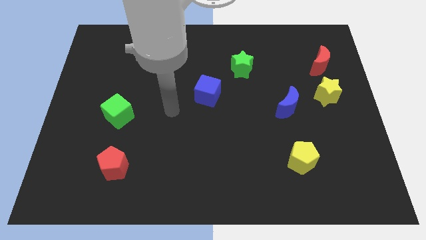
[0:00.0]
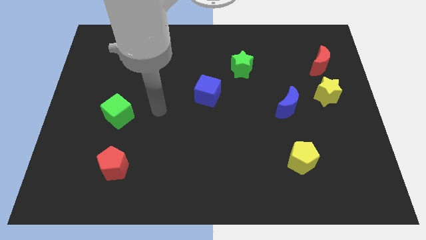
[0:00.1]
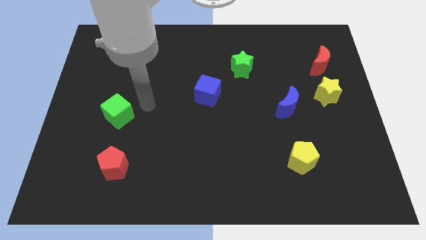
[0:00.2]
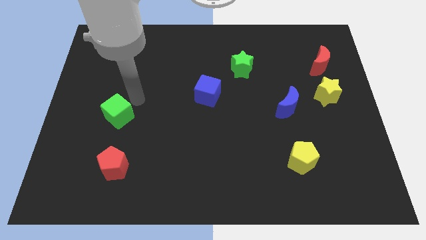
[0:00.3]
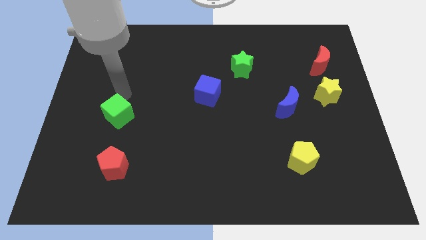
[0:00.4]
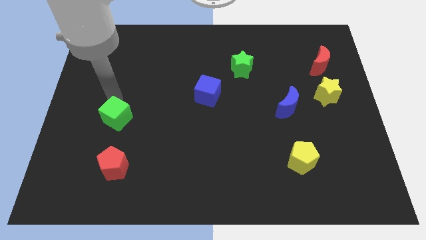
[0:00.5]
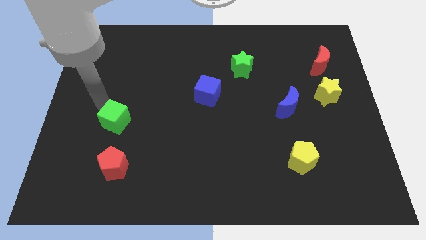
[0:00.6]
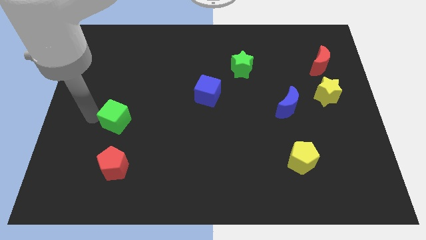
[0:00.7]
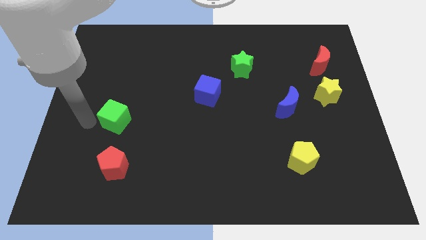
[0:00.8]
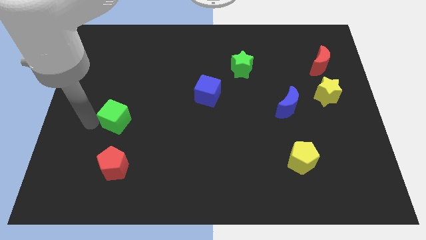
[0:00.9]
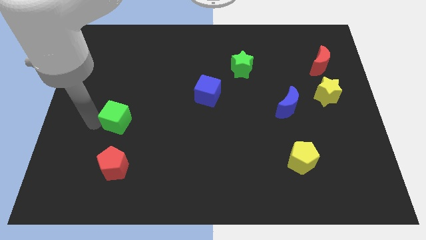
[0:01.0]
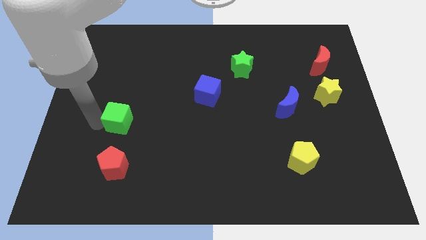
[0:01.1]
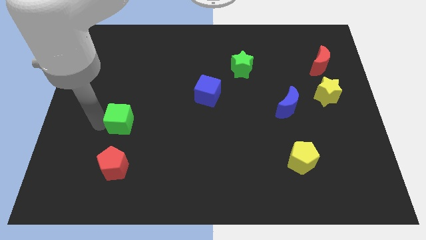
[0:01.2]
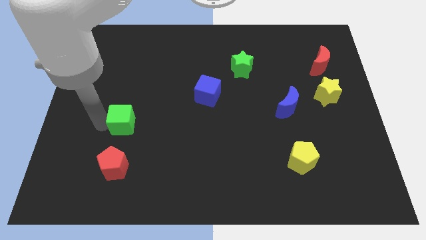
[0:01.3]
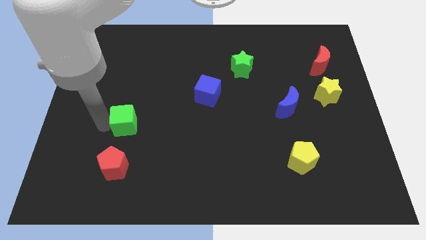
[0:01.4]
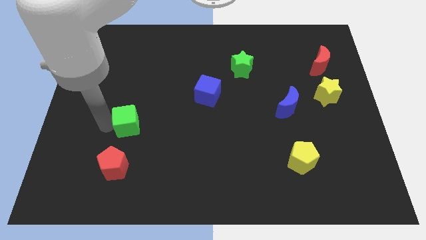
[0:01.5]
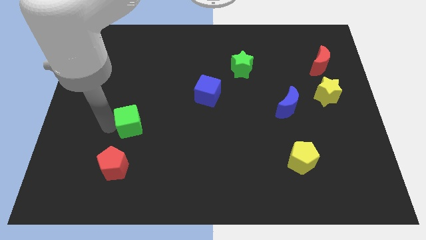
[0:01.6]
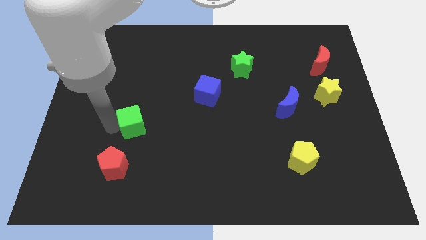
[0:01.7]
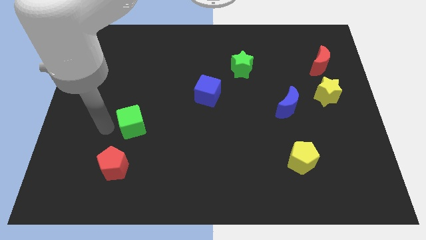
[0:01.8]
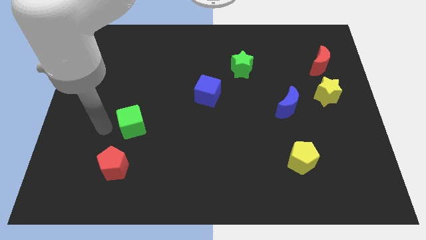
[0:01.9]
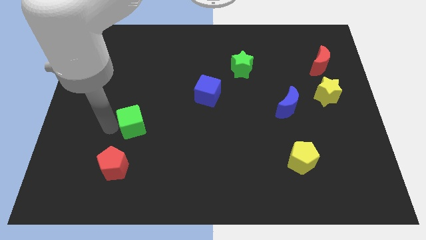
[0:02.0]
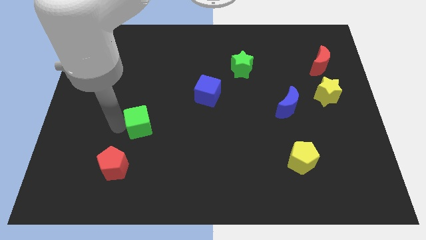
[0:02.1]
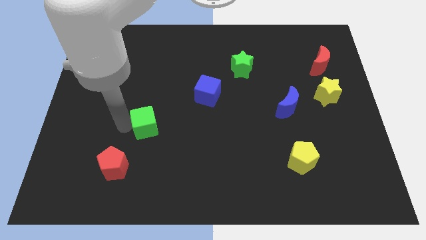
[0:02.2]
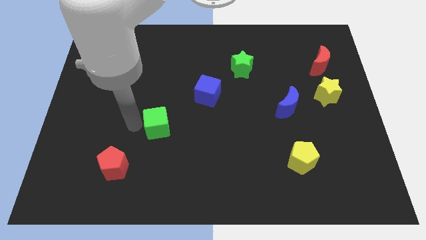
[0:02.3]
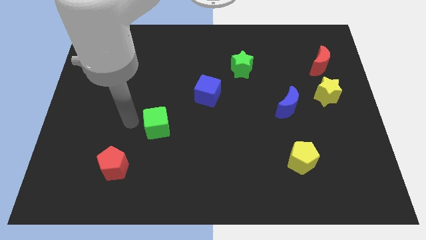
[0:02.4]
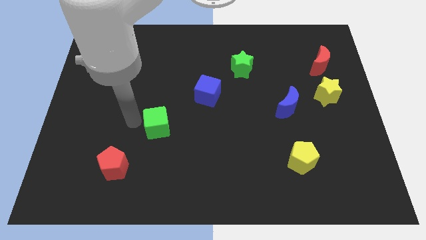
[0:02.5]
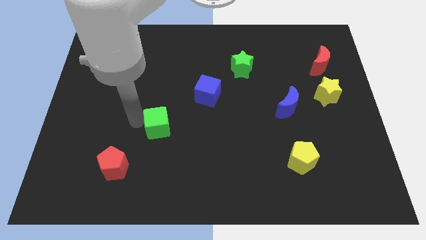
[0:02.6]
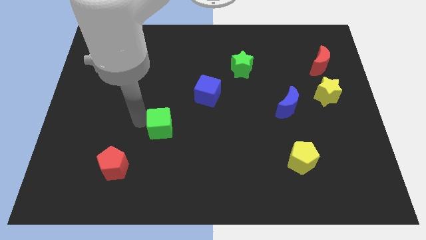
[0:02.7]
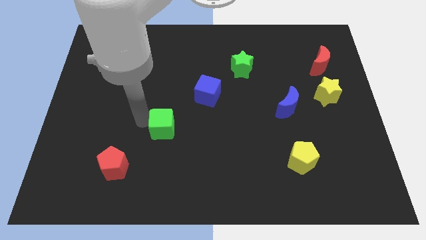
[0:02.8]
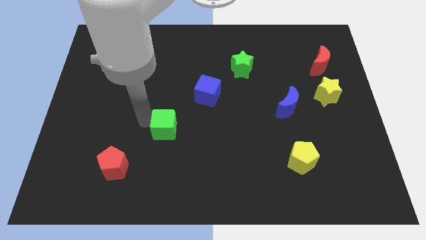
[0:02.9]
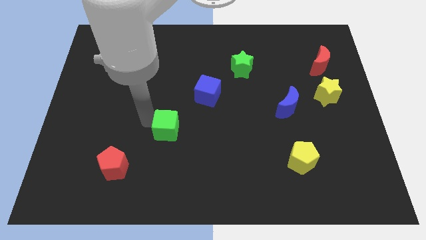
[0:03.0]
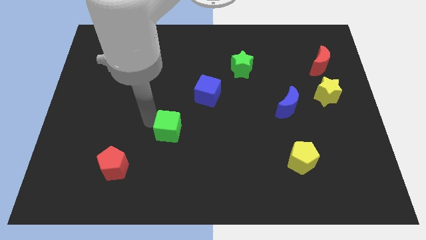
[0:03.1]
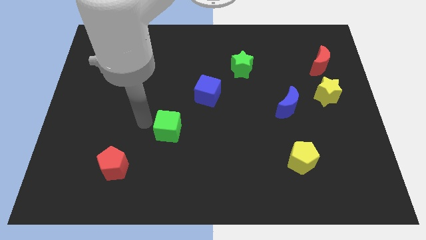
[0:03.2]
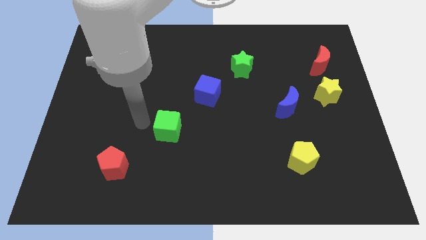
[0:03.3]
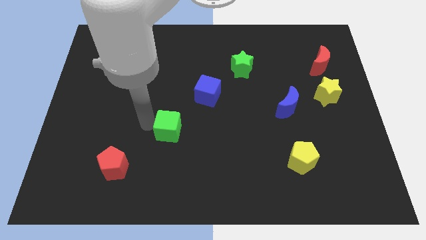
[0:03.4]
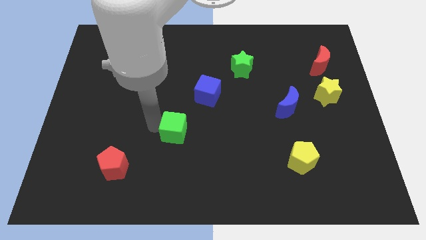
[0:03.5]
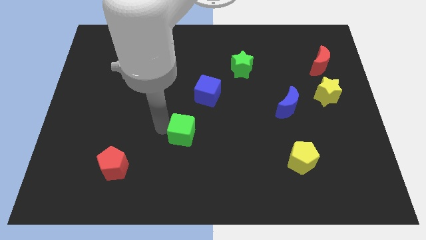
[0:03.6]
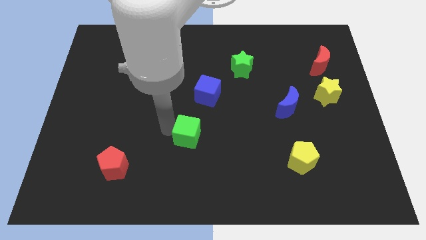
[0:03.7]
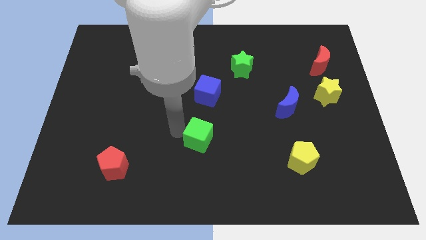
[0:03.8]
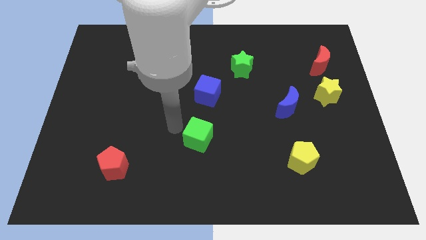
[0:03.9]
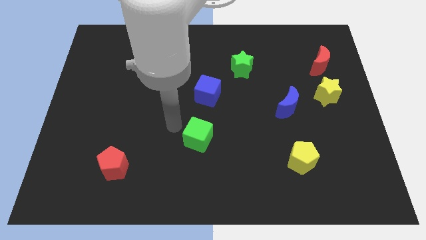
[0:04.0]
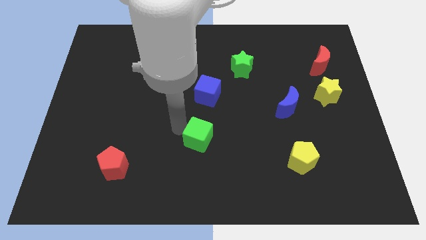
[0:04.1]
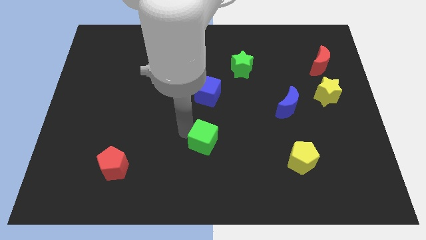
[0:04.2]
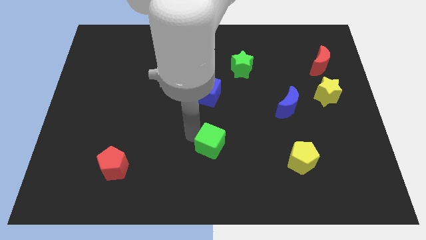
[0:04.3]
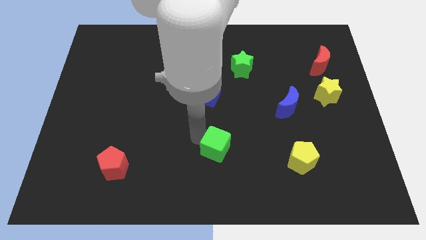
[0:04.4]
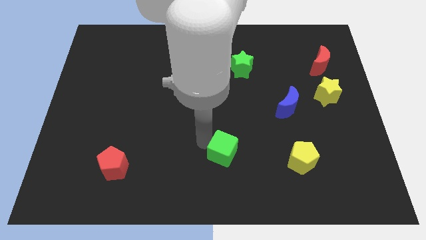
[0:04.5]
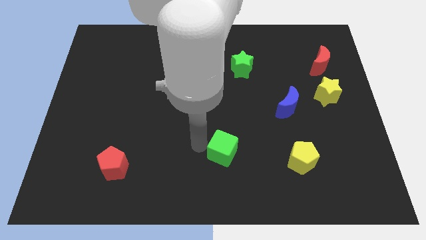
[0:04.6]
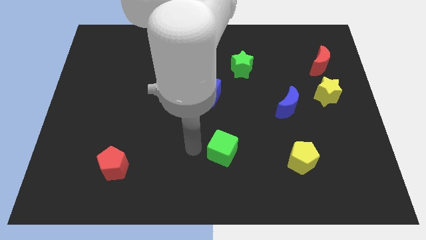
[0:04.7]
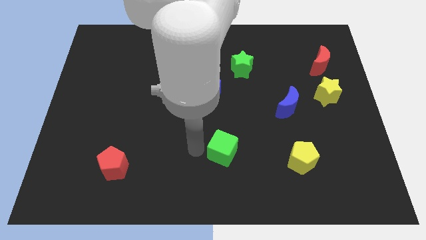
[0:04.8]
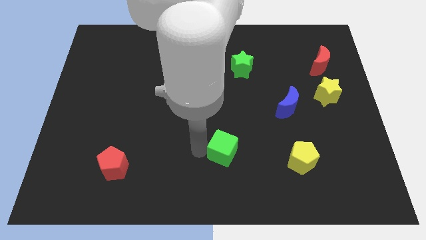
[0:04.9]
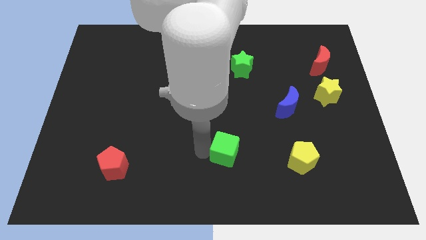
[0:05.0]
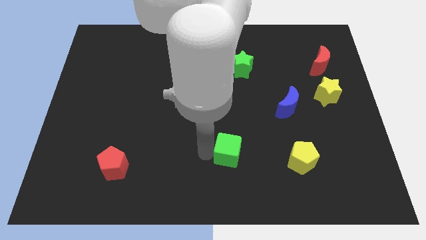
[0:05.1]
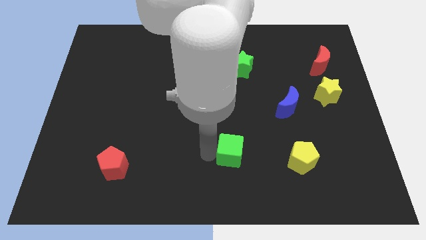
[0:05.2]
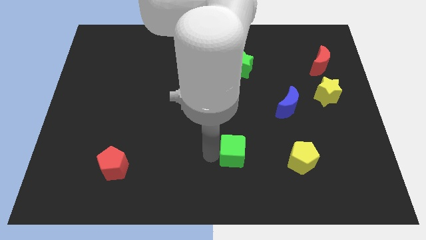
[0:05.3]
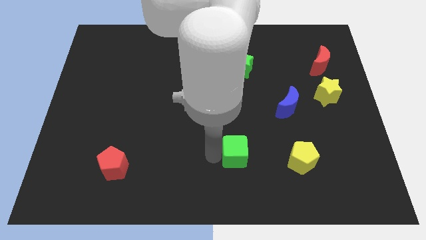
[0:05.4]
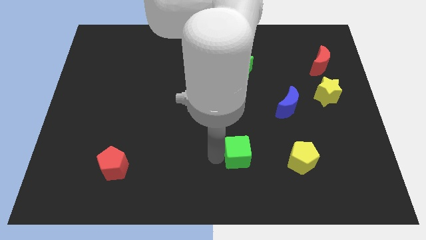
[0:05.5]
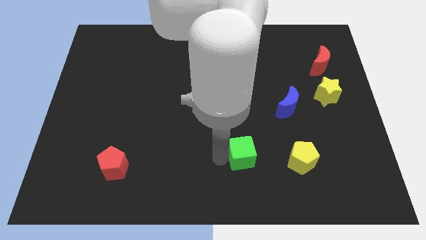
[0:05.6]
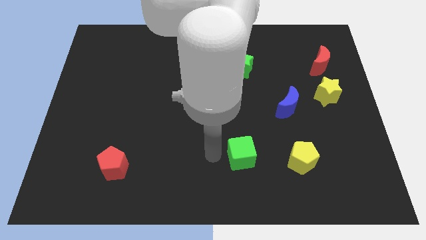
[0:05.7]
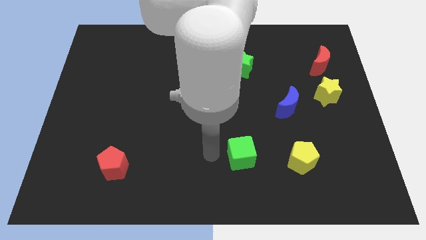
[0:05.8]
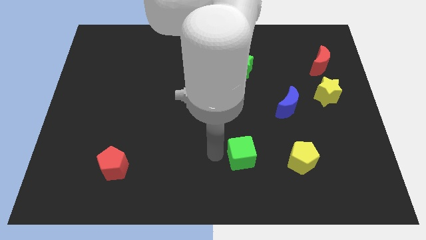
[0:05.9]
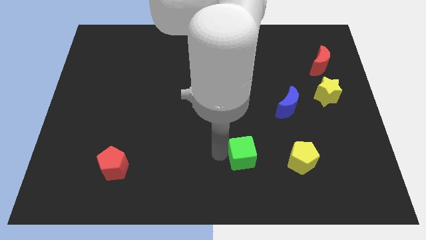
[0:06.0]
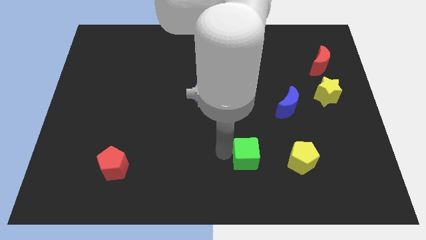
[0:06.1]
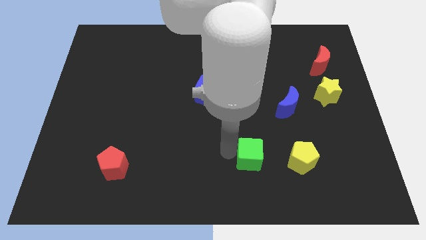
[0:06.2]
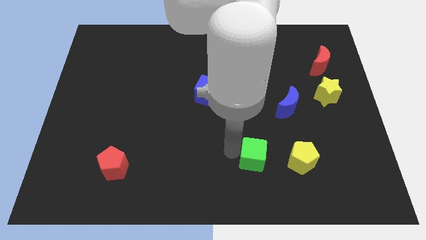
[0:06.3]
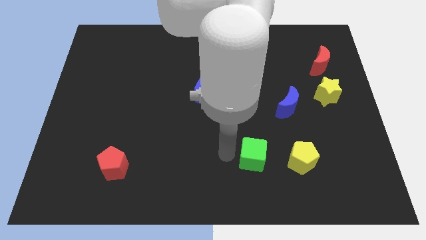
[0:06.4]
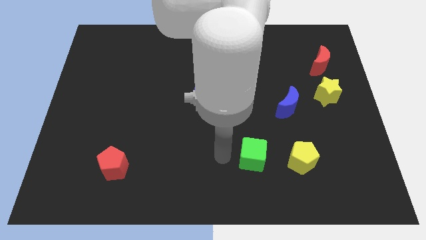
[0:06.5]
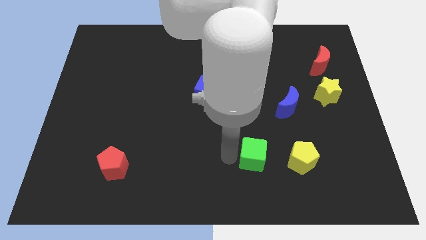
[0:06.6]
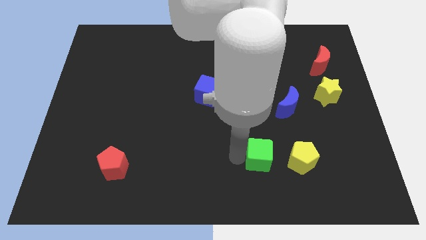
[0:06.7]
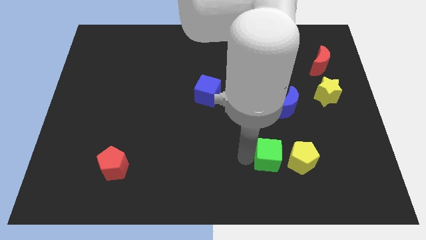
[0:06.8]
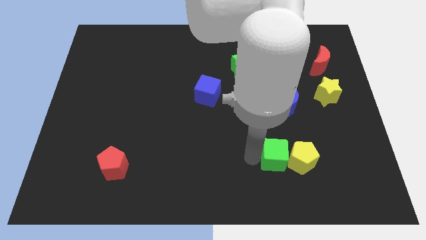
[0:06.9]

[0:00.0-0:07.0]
move the green cube towards the yellow pentagon
